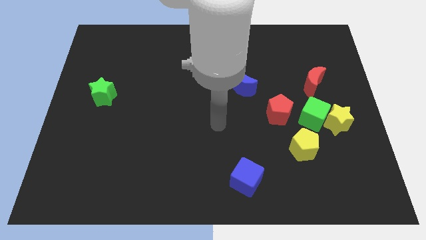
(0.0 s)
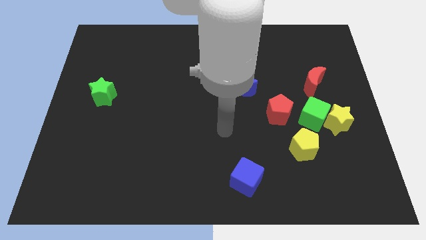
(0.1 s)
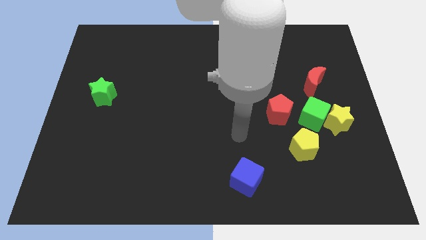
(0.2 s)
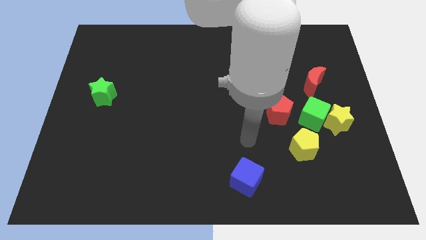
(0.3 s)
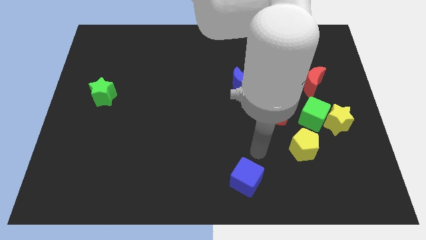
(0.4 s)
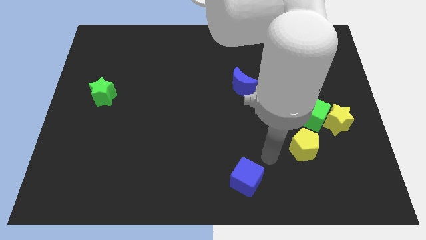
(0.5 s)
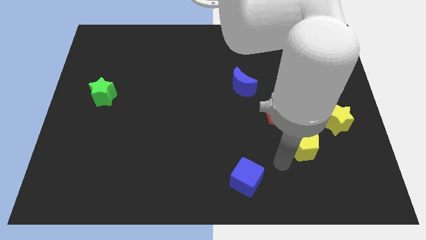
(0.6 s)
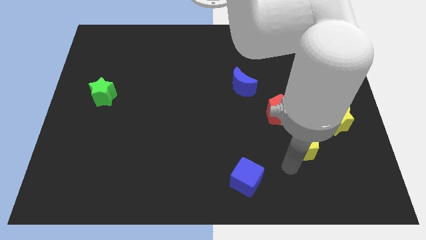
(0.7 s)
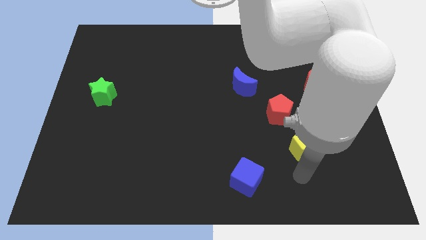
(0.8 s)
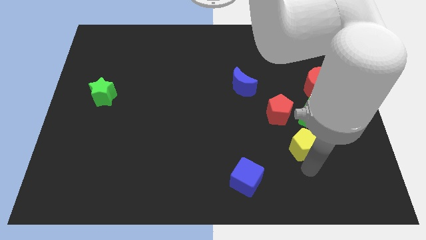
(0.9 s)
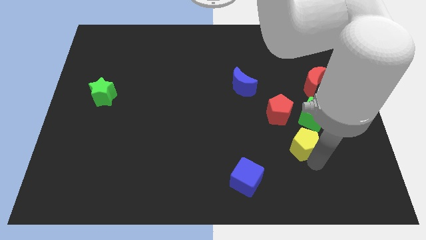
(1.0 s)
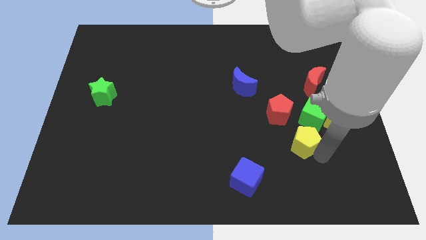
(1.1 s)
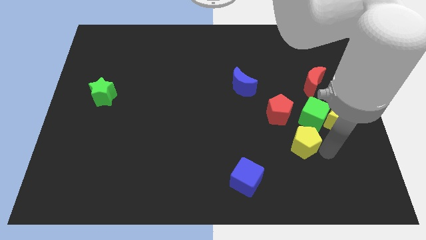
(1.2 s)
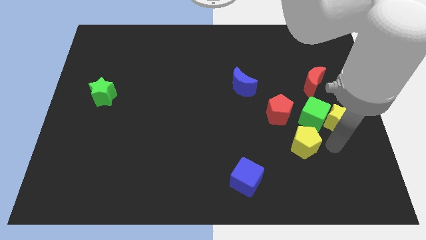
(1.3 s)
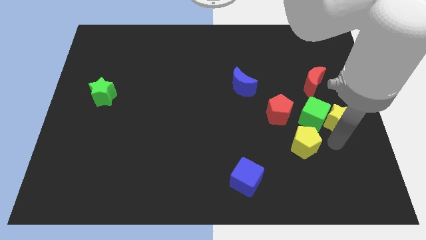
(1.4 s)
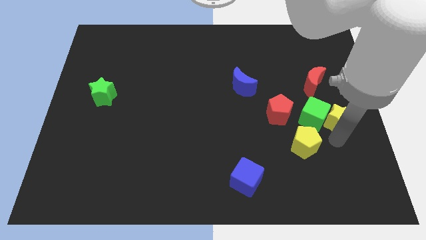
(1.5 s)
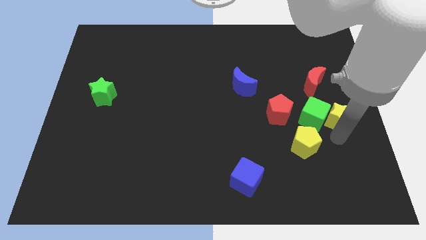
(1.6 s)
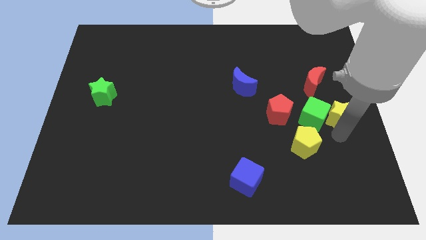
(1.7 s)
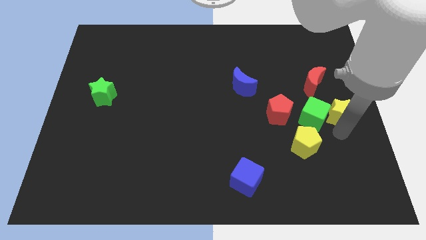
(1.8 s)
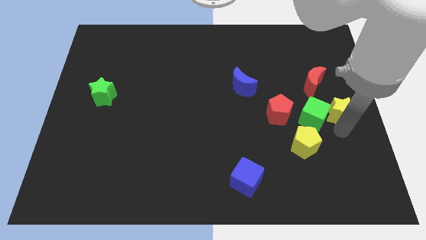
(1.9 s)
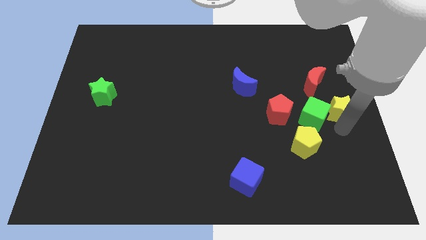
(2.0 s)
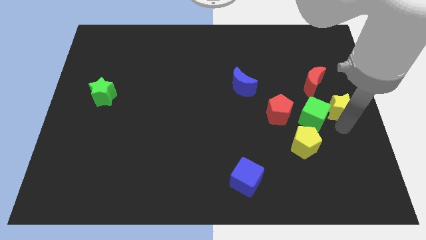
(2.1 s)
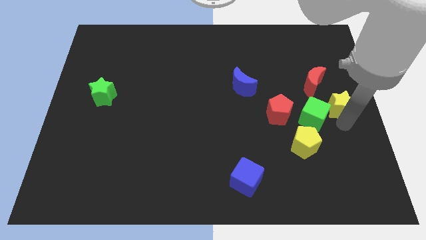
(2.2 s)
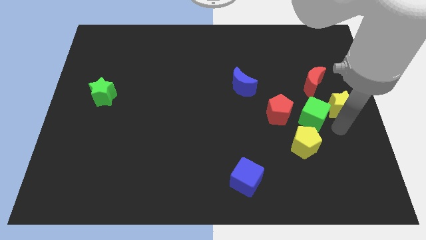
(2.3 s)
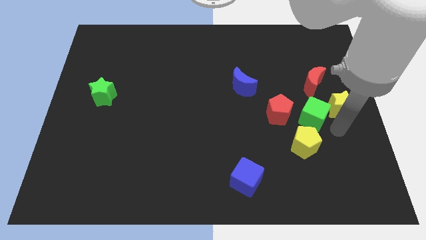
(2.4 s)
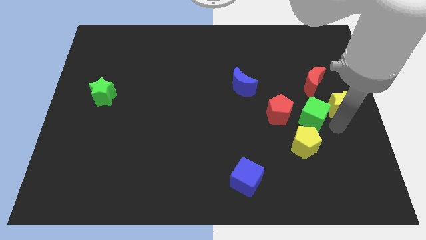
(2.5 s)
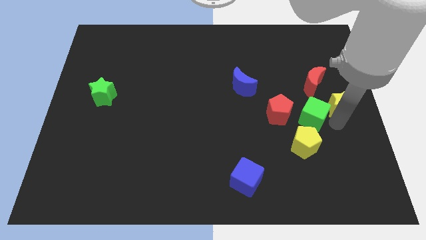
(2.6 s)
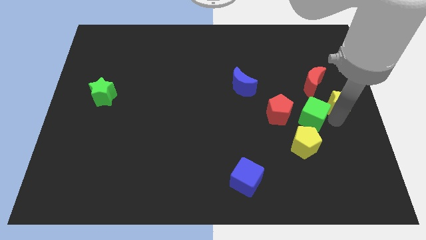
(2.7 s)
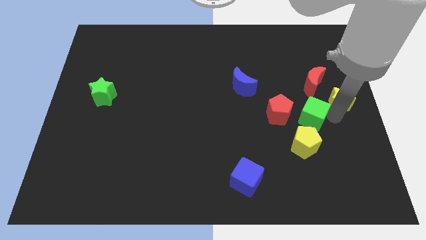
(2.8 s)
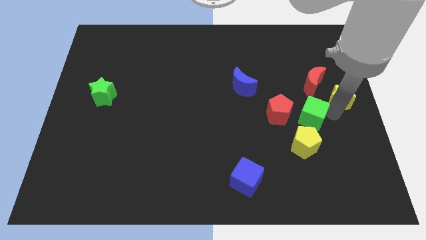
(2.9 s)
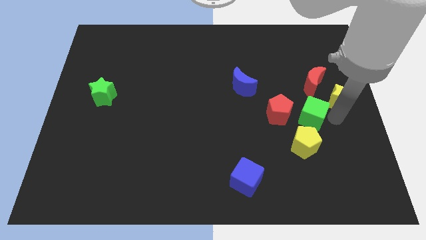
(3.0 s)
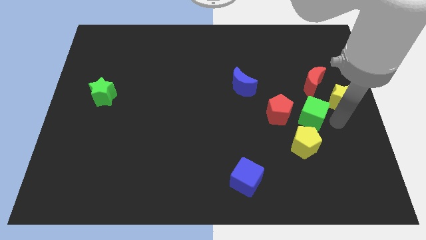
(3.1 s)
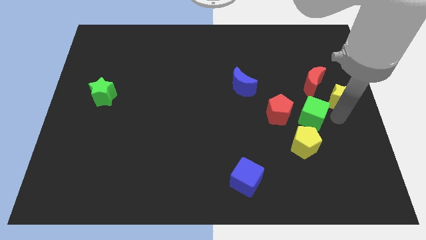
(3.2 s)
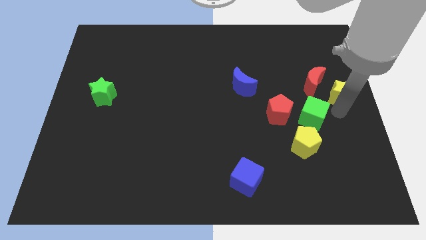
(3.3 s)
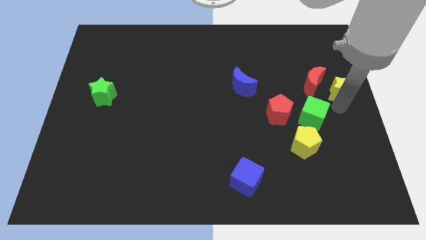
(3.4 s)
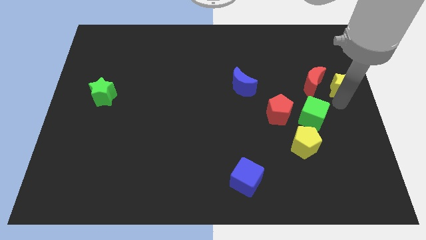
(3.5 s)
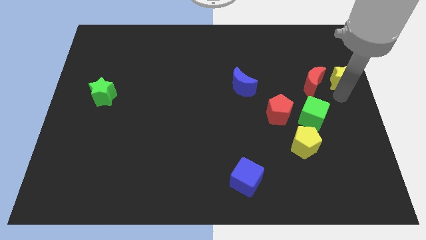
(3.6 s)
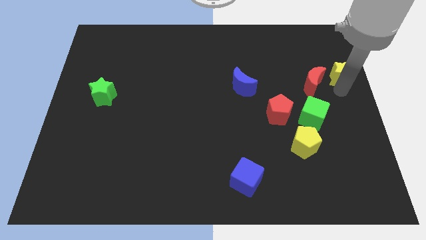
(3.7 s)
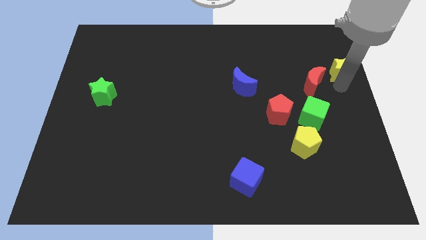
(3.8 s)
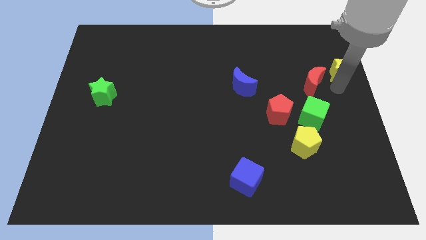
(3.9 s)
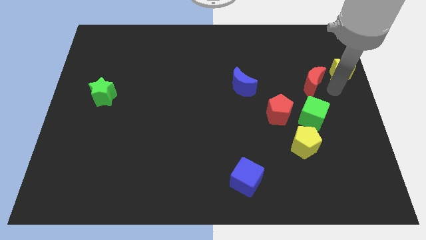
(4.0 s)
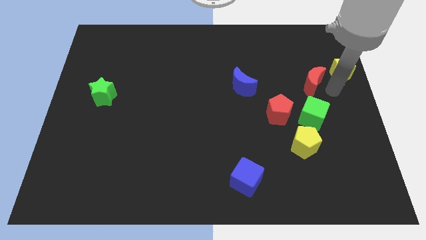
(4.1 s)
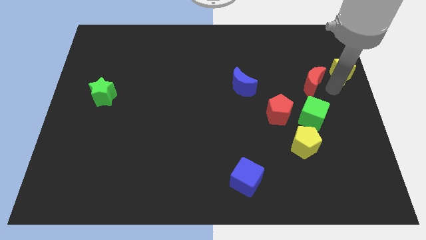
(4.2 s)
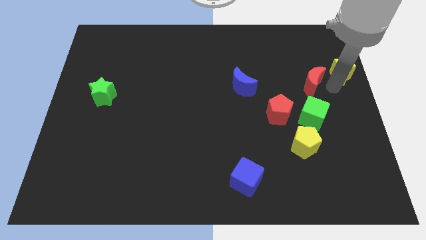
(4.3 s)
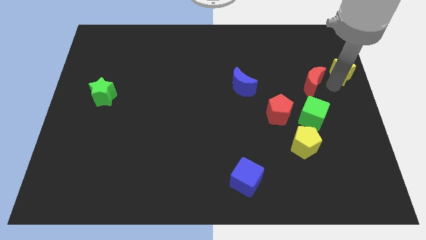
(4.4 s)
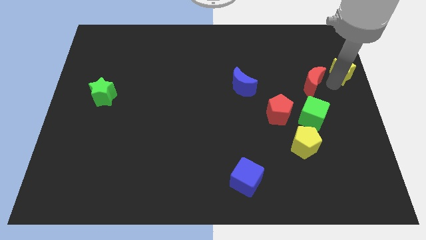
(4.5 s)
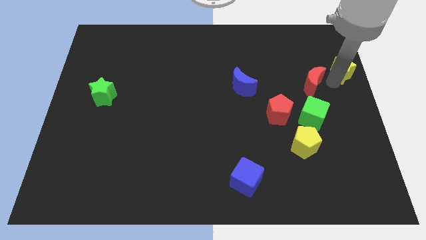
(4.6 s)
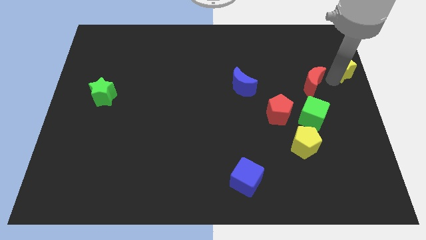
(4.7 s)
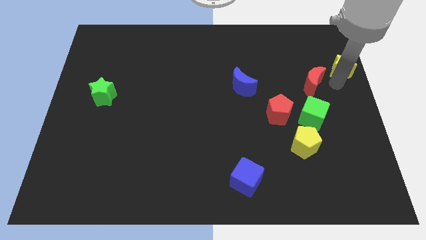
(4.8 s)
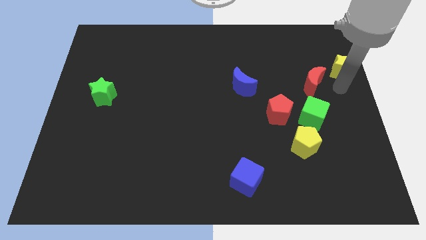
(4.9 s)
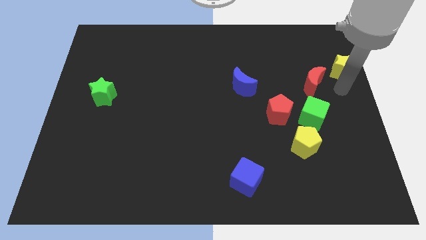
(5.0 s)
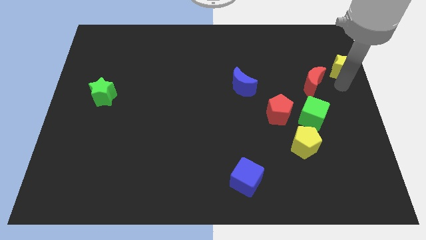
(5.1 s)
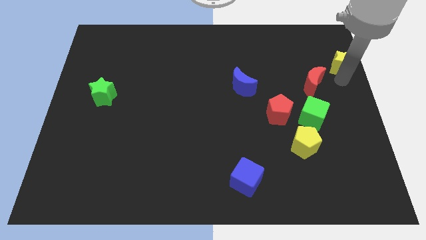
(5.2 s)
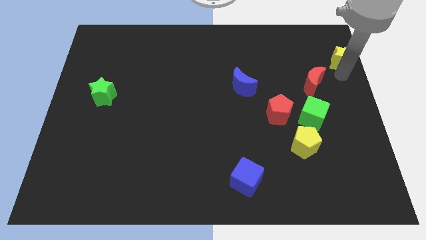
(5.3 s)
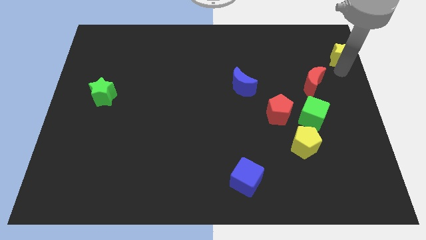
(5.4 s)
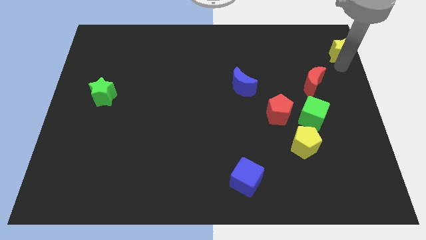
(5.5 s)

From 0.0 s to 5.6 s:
push the yellow star to the top right

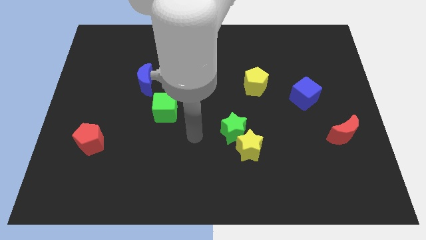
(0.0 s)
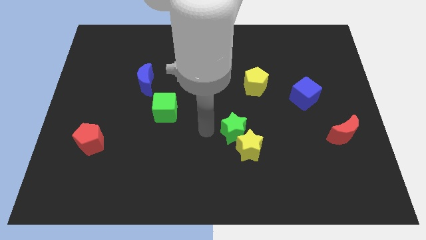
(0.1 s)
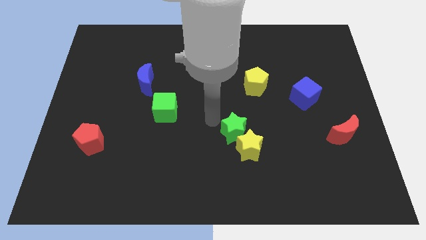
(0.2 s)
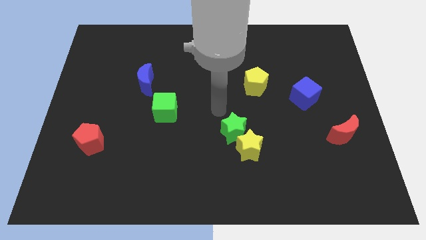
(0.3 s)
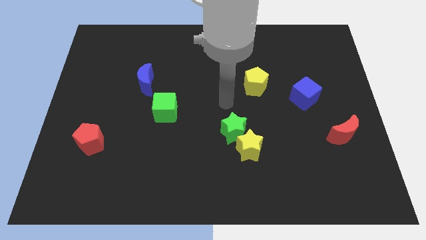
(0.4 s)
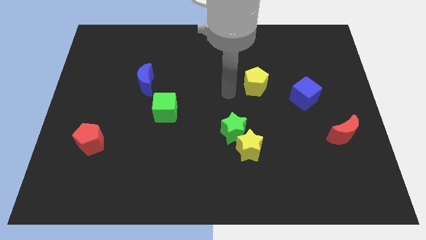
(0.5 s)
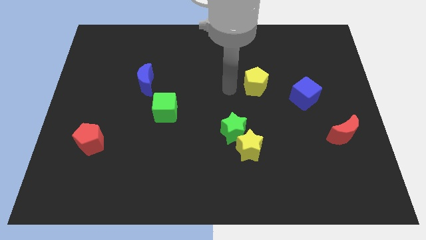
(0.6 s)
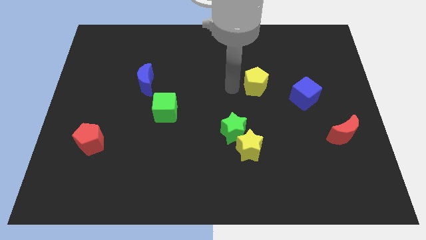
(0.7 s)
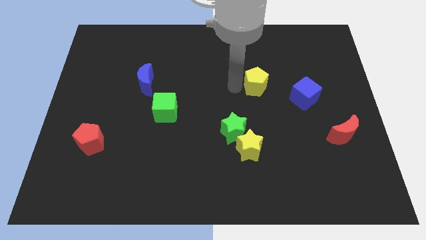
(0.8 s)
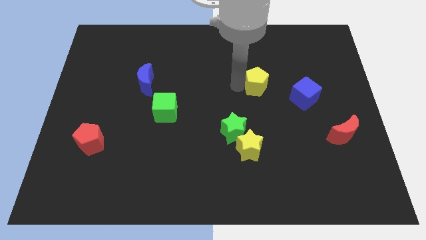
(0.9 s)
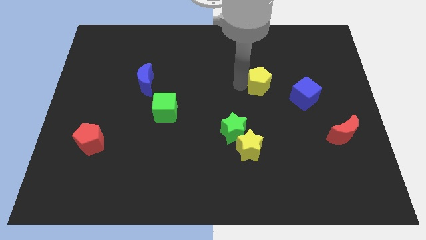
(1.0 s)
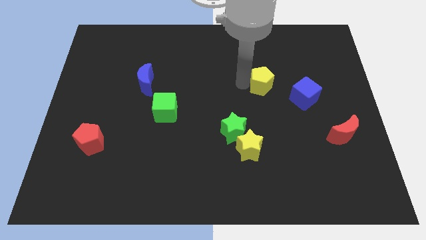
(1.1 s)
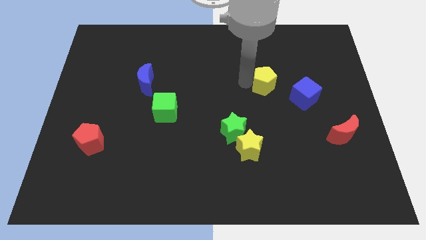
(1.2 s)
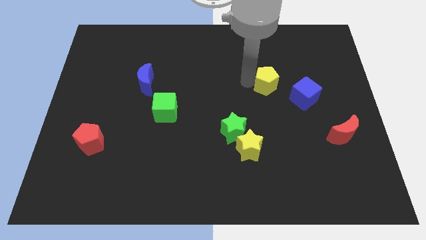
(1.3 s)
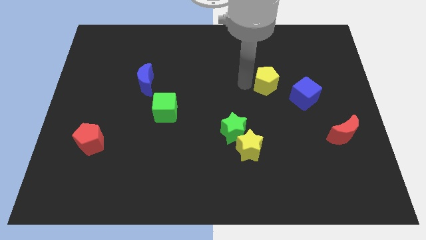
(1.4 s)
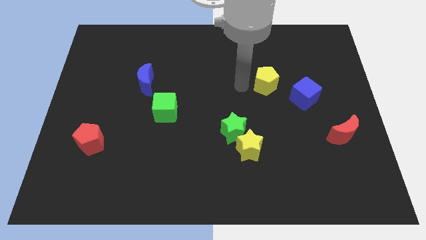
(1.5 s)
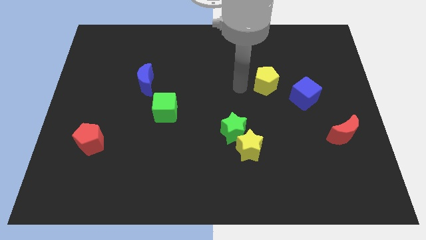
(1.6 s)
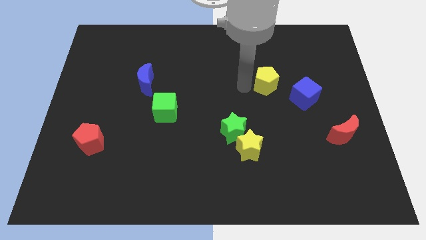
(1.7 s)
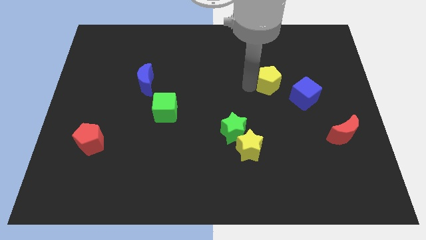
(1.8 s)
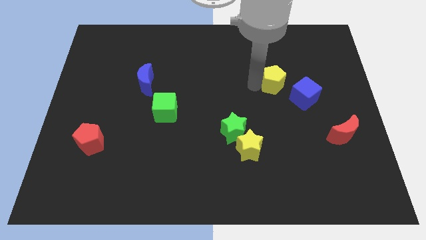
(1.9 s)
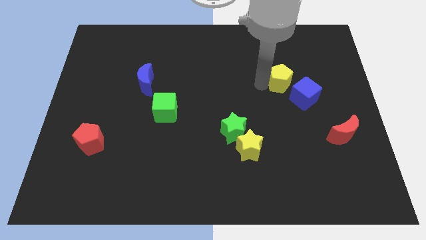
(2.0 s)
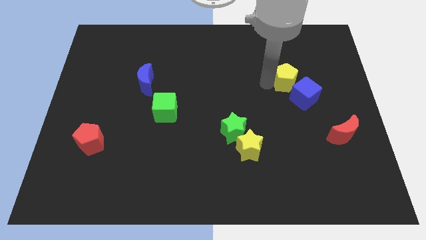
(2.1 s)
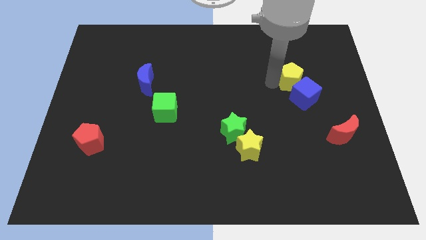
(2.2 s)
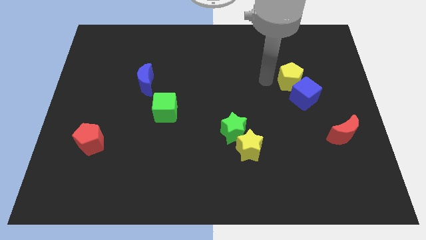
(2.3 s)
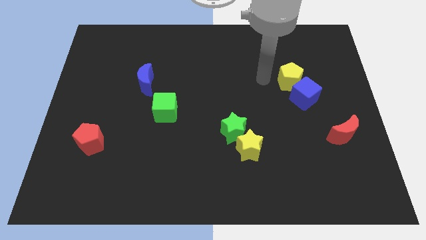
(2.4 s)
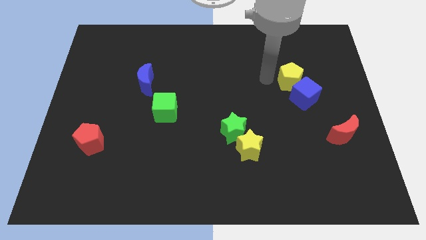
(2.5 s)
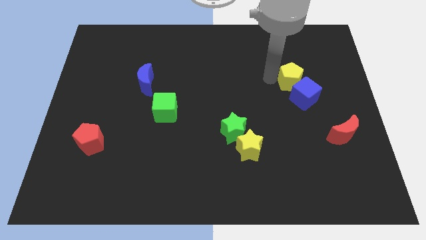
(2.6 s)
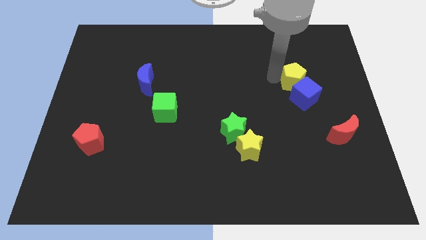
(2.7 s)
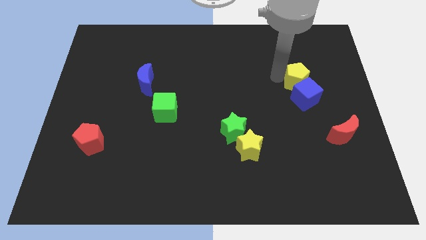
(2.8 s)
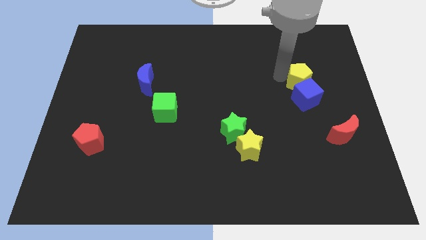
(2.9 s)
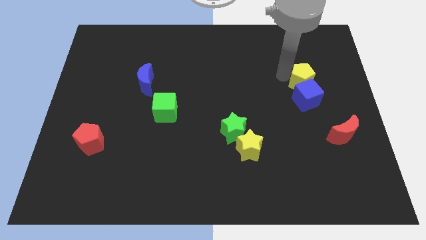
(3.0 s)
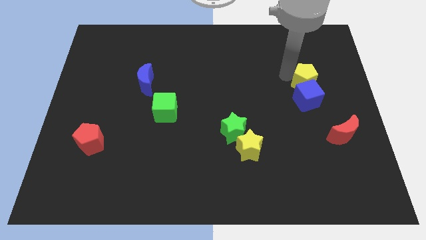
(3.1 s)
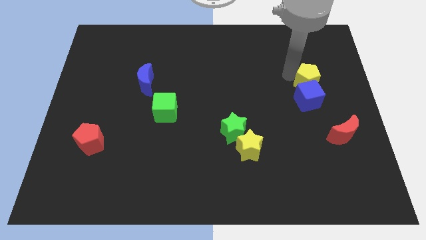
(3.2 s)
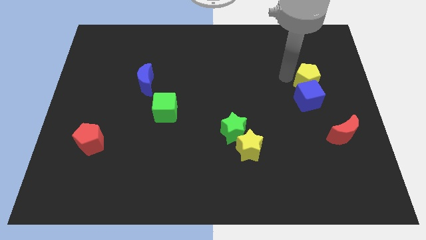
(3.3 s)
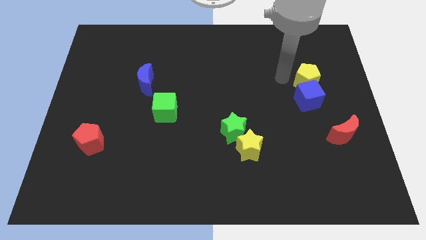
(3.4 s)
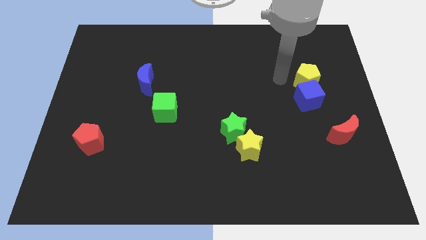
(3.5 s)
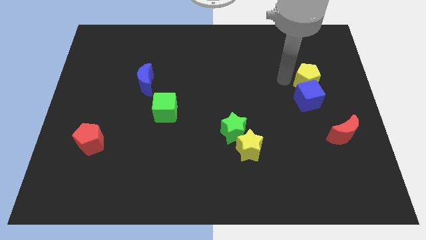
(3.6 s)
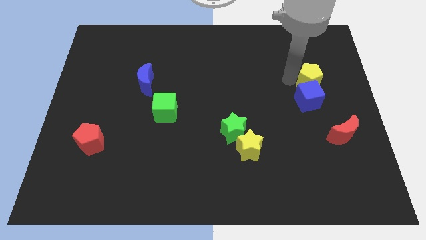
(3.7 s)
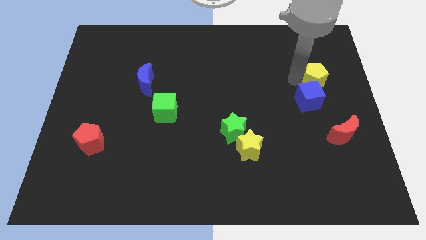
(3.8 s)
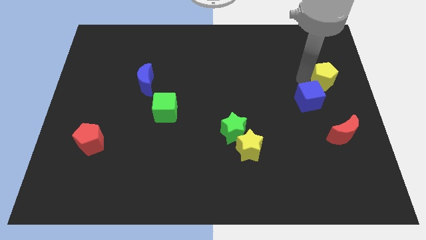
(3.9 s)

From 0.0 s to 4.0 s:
push the yellow pentagon to the center right
